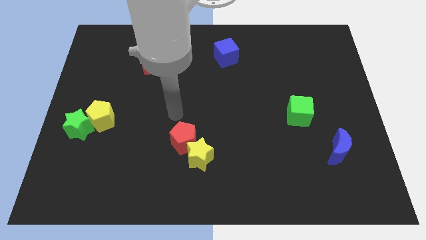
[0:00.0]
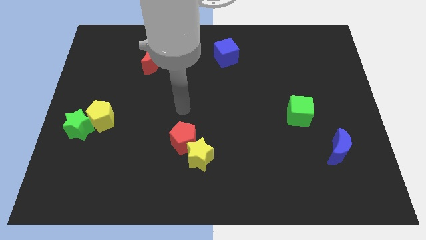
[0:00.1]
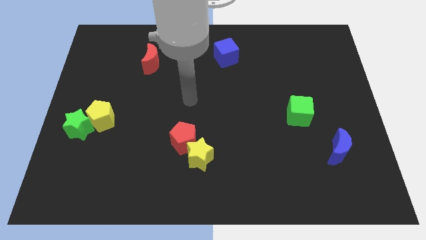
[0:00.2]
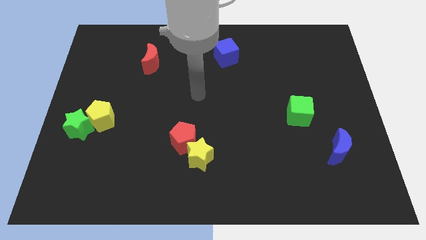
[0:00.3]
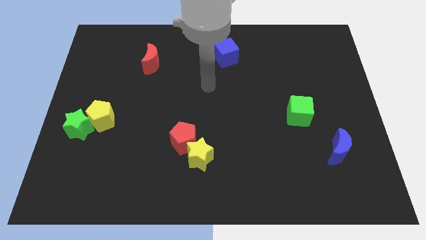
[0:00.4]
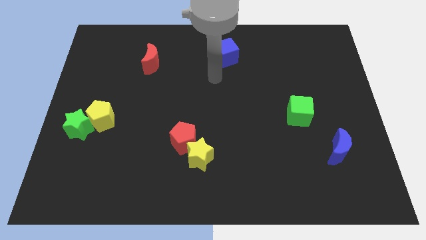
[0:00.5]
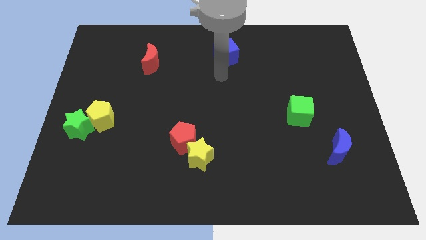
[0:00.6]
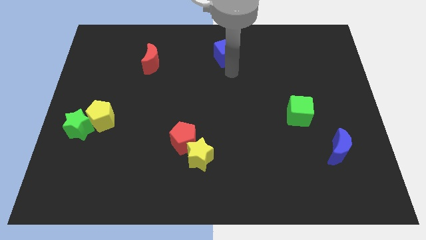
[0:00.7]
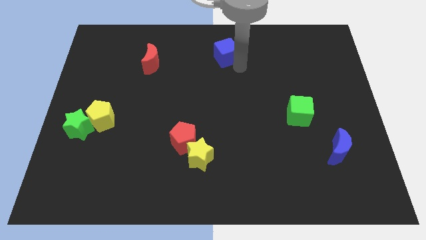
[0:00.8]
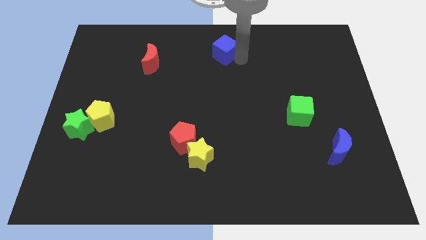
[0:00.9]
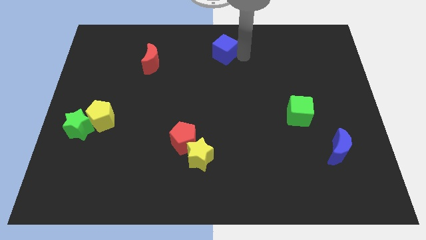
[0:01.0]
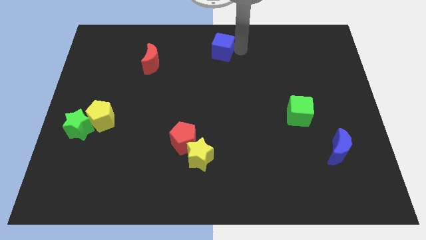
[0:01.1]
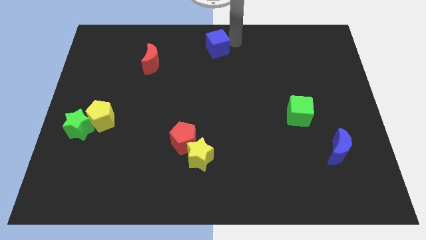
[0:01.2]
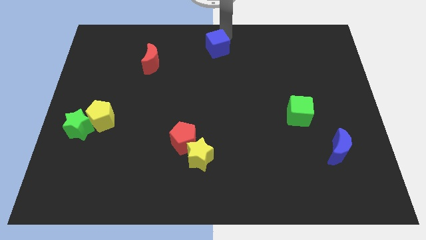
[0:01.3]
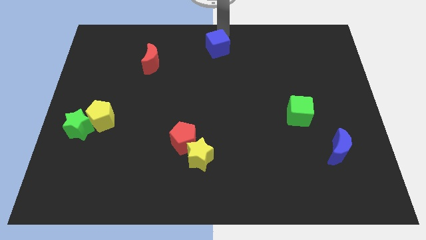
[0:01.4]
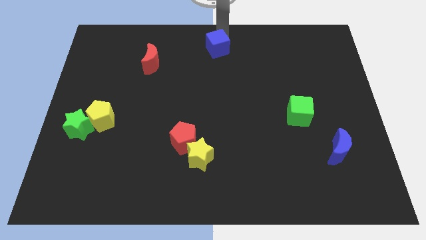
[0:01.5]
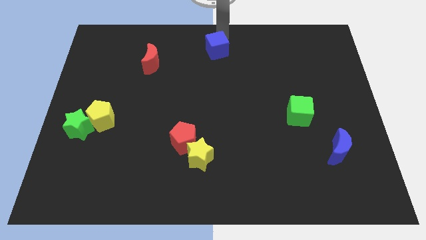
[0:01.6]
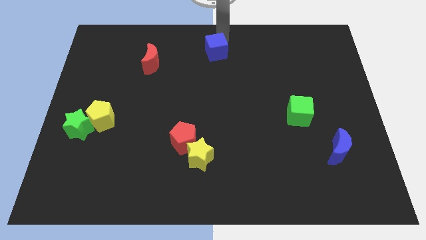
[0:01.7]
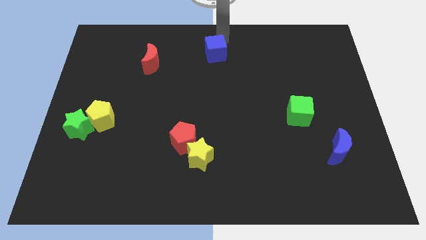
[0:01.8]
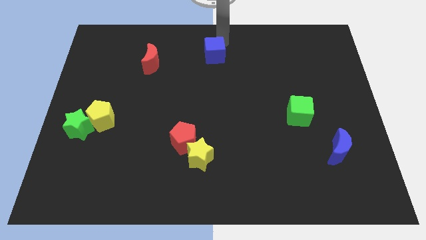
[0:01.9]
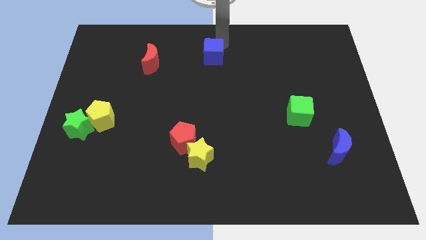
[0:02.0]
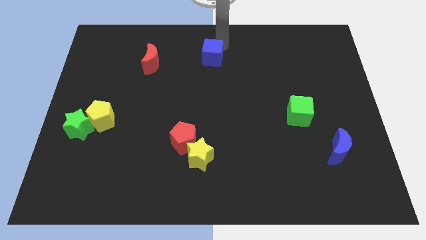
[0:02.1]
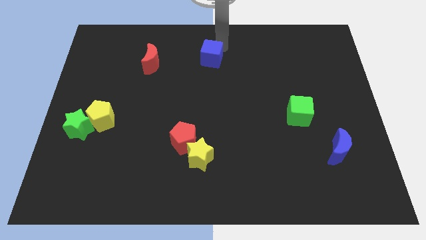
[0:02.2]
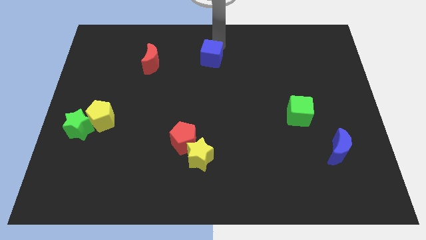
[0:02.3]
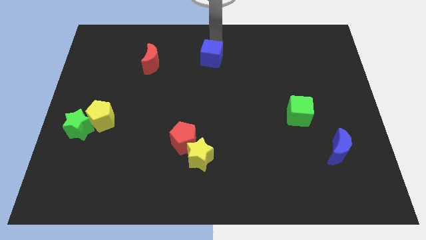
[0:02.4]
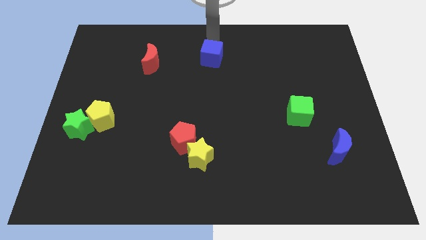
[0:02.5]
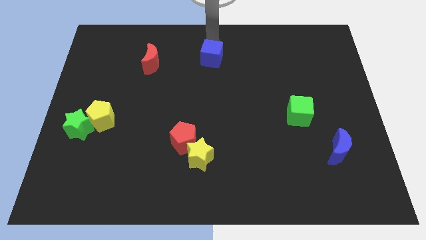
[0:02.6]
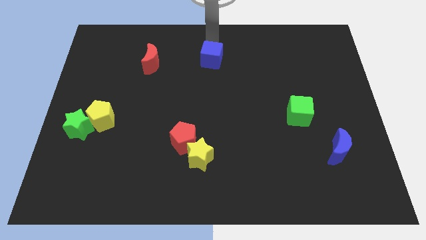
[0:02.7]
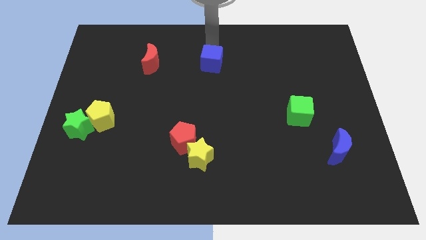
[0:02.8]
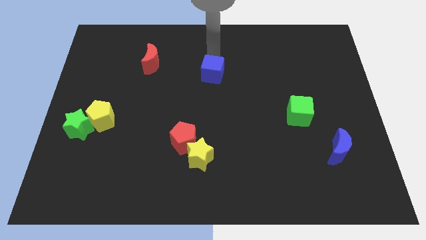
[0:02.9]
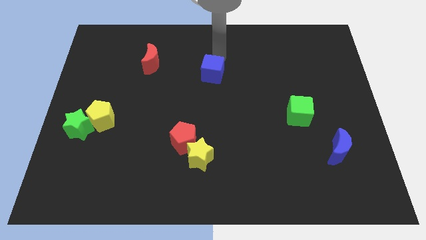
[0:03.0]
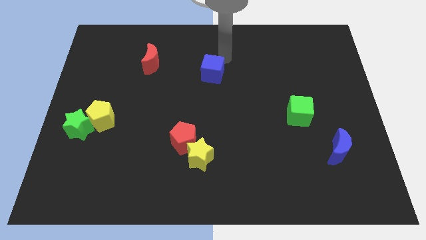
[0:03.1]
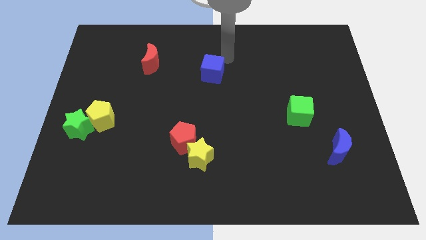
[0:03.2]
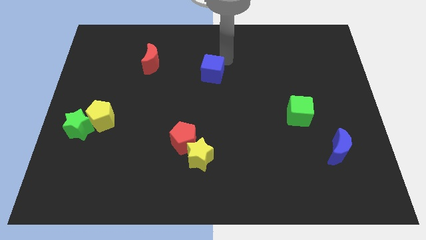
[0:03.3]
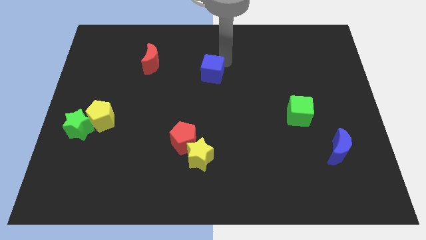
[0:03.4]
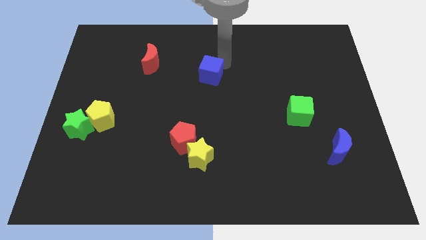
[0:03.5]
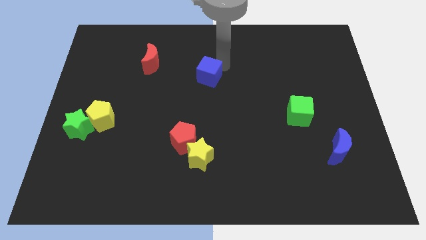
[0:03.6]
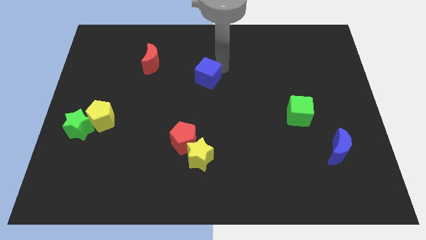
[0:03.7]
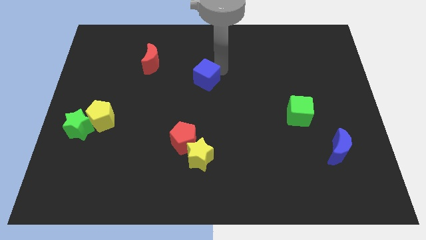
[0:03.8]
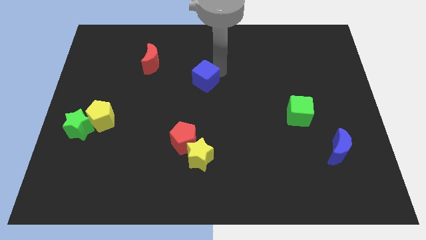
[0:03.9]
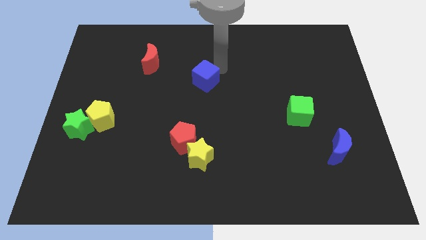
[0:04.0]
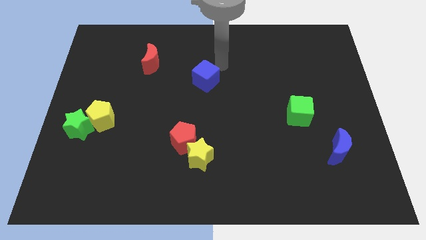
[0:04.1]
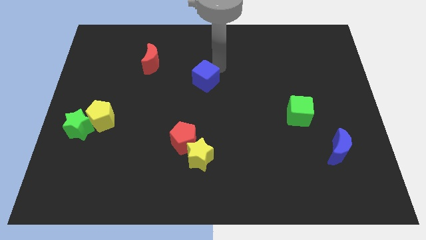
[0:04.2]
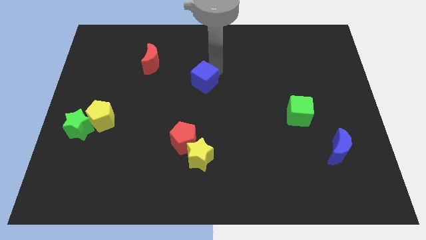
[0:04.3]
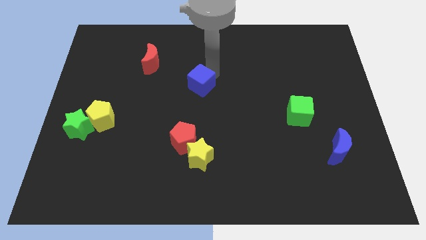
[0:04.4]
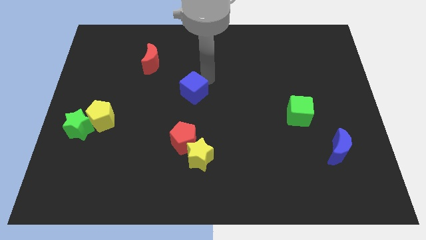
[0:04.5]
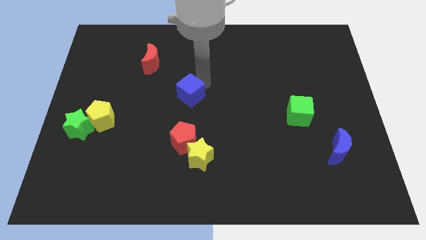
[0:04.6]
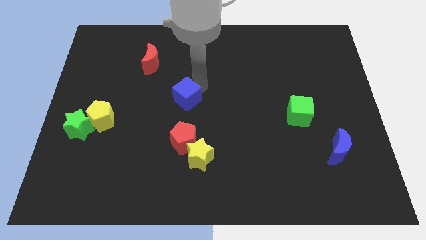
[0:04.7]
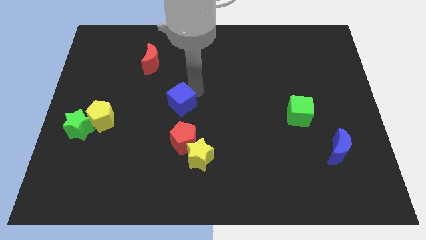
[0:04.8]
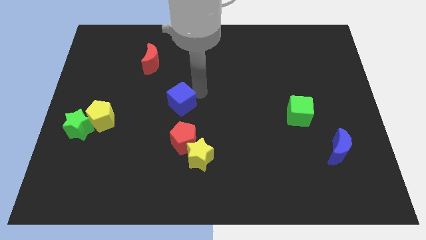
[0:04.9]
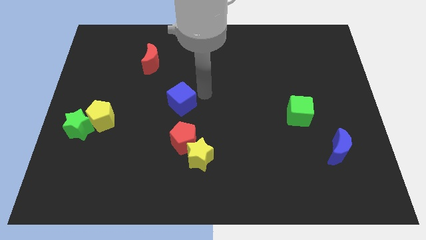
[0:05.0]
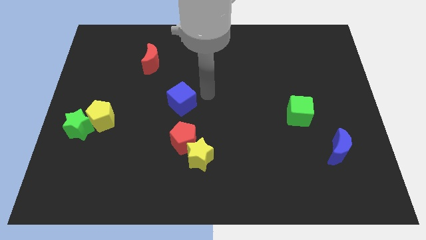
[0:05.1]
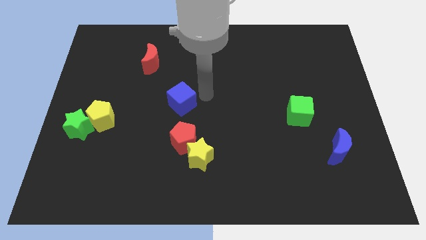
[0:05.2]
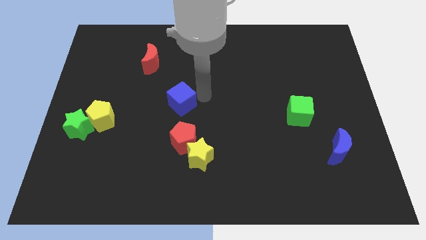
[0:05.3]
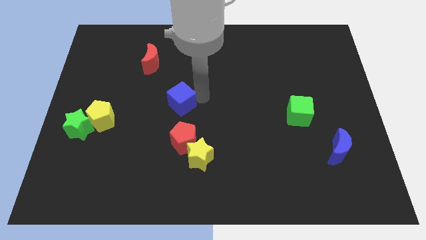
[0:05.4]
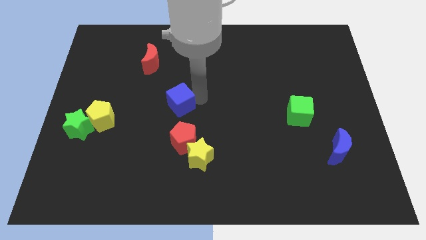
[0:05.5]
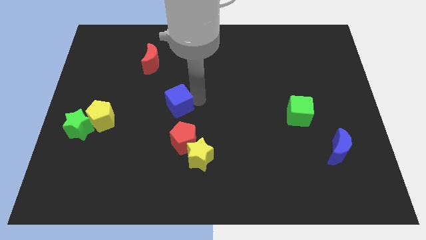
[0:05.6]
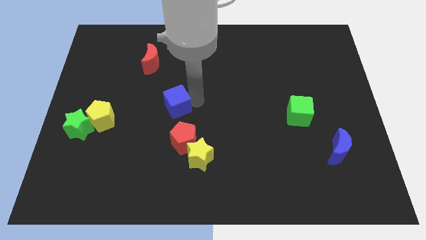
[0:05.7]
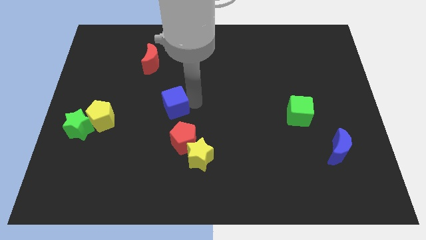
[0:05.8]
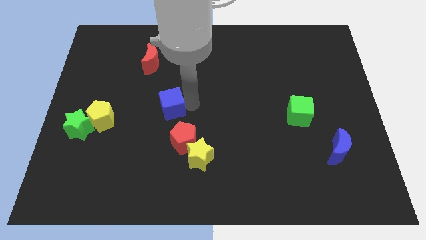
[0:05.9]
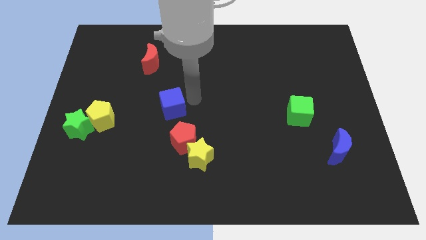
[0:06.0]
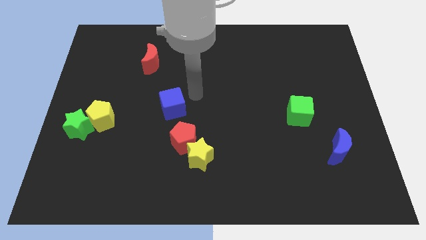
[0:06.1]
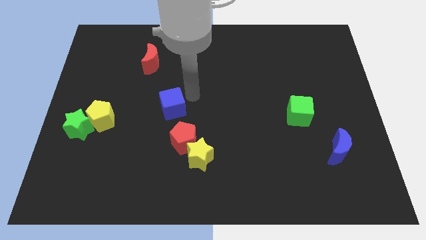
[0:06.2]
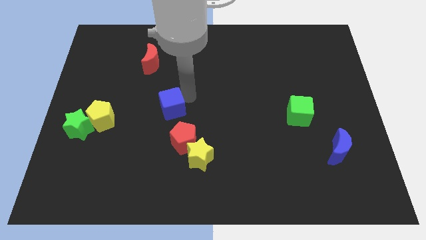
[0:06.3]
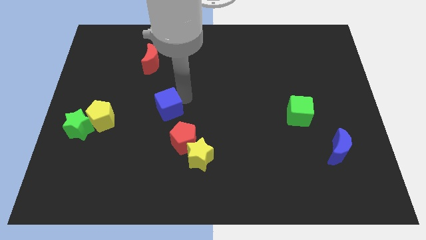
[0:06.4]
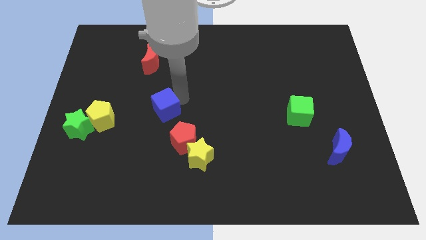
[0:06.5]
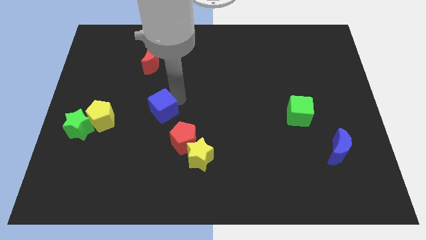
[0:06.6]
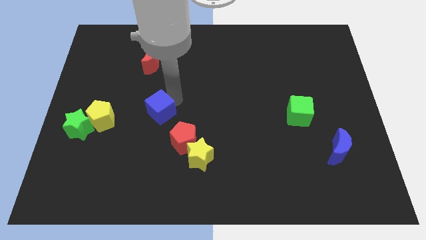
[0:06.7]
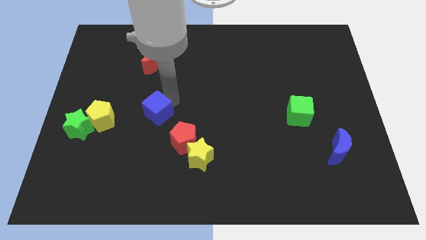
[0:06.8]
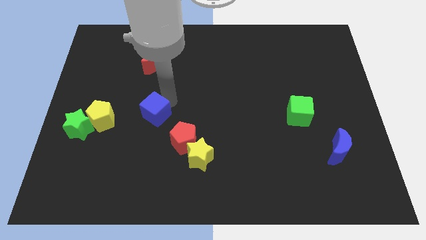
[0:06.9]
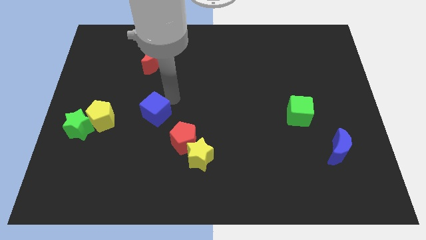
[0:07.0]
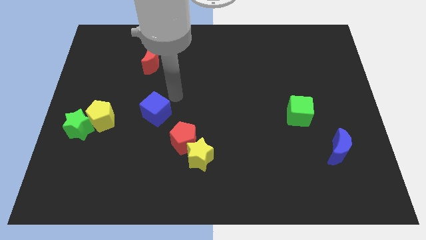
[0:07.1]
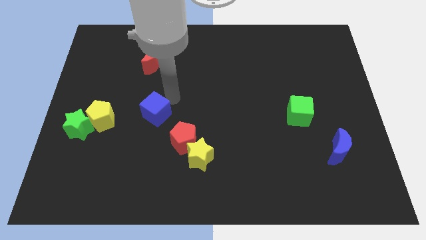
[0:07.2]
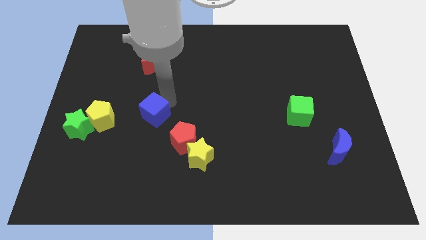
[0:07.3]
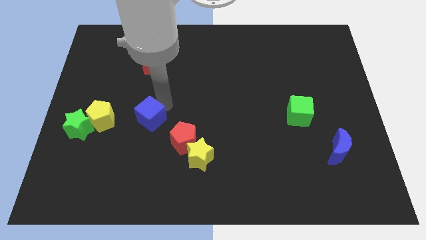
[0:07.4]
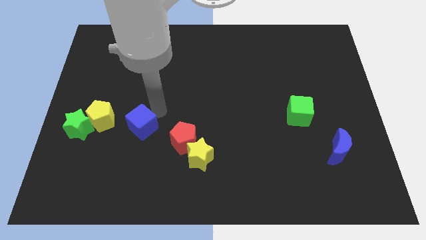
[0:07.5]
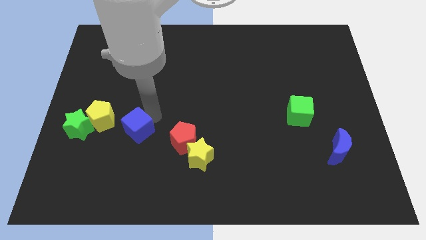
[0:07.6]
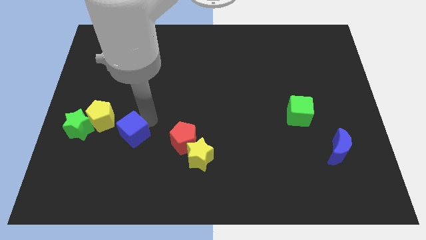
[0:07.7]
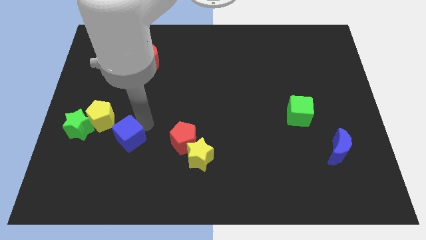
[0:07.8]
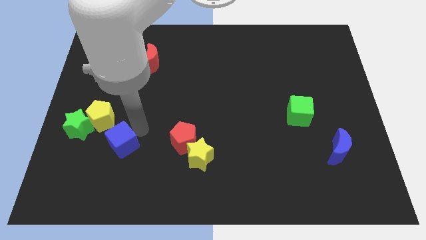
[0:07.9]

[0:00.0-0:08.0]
push the blue cube to the bottom right side of the green star
